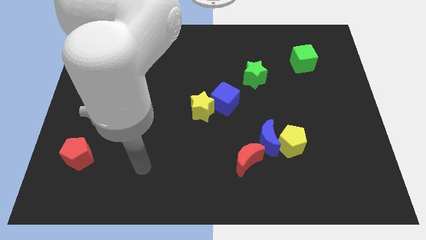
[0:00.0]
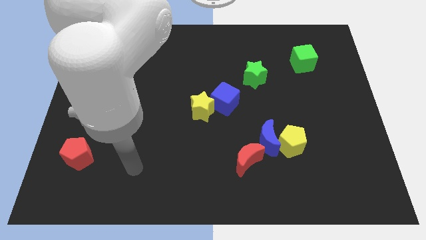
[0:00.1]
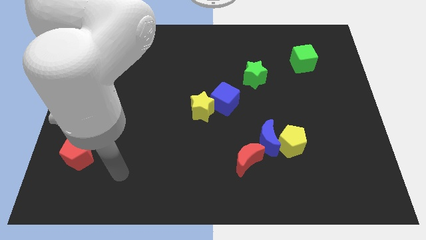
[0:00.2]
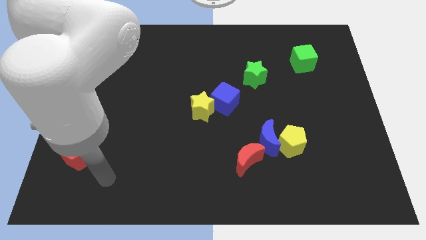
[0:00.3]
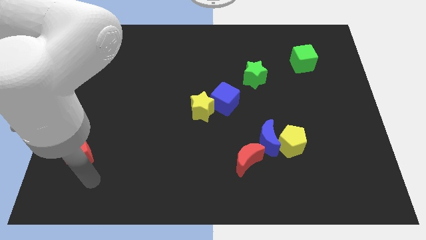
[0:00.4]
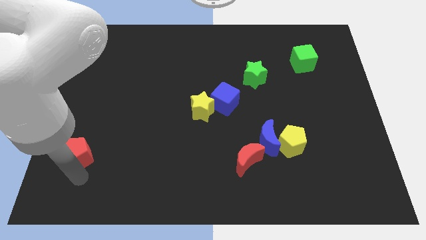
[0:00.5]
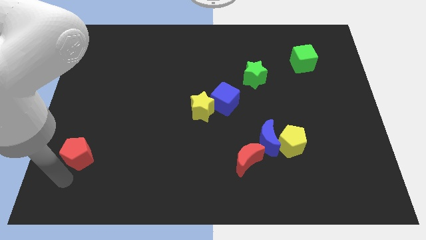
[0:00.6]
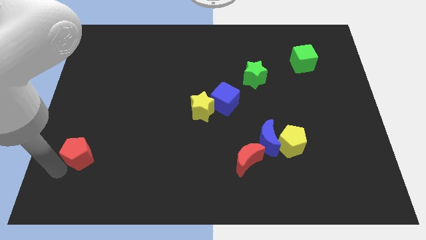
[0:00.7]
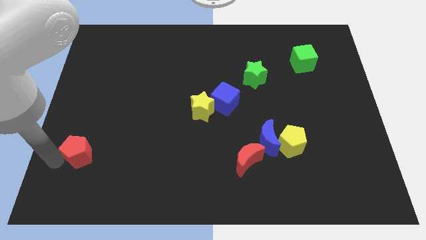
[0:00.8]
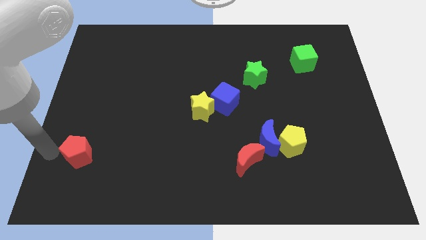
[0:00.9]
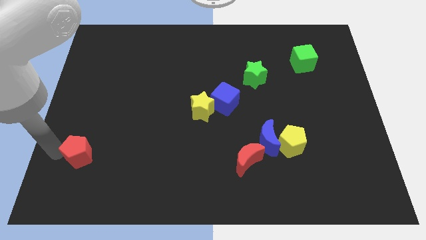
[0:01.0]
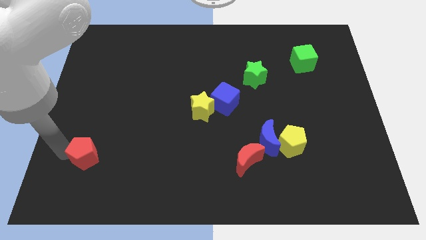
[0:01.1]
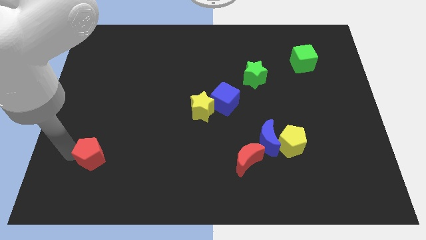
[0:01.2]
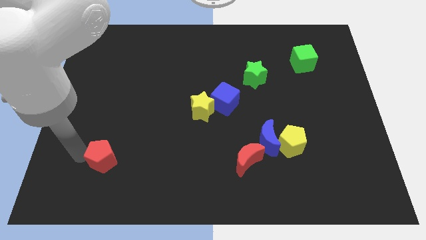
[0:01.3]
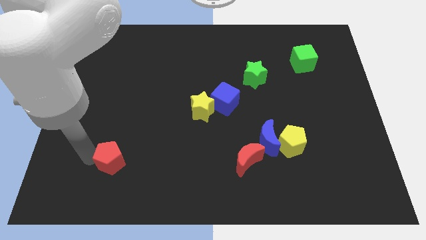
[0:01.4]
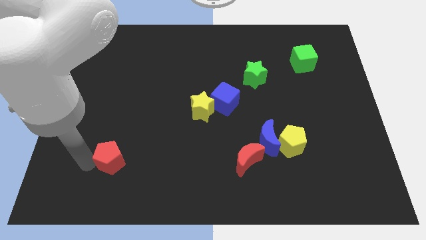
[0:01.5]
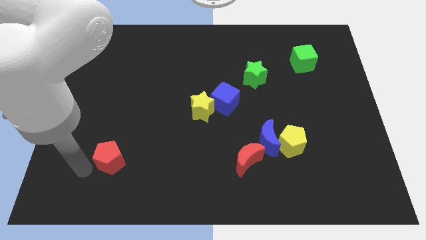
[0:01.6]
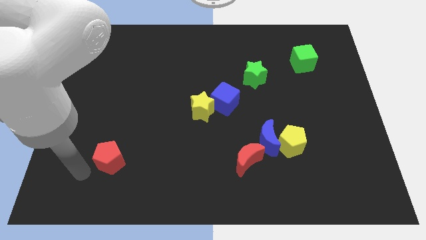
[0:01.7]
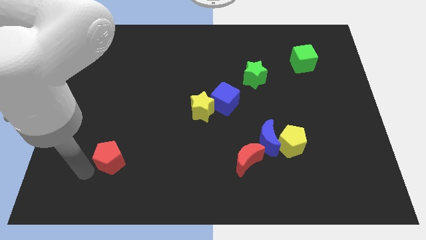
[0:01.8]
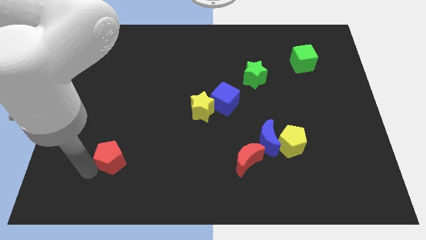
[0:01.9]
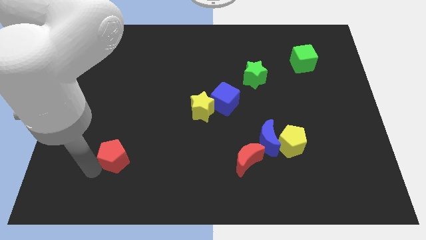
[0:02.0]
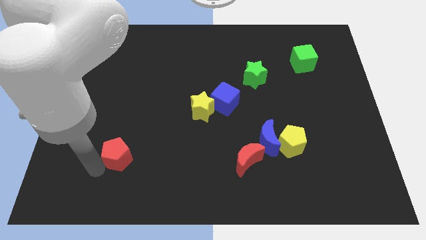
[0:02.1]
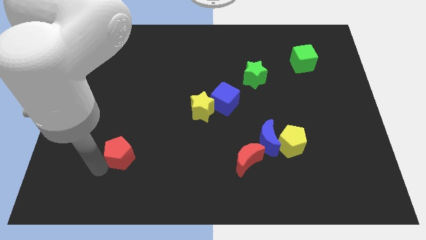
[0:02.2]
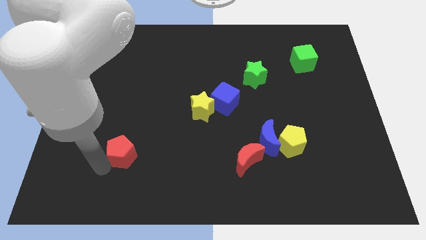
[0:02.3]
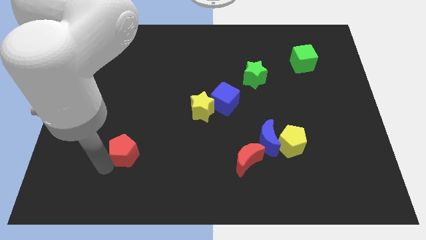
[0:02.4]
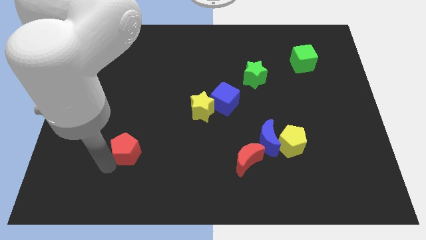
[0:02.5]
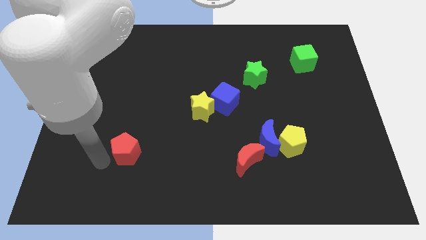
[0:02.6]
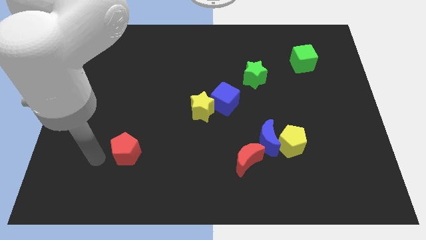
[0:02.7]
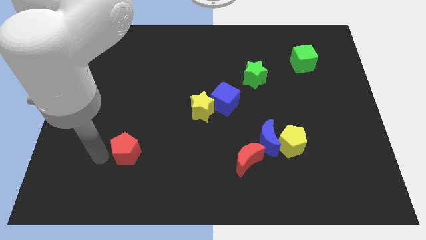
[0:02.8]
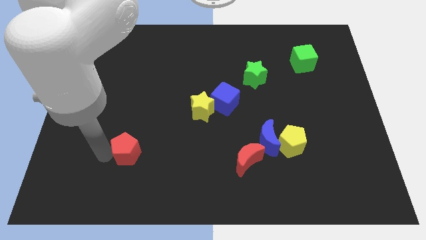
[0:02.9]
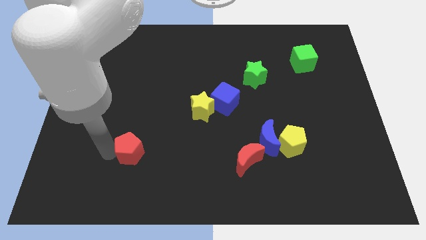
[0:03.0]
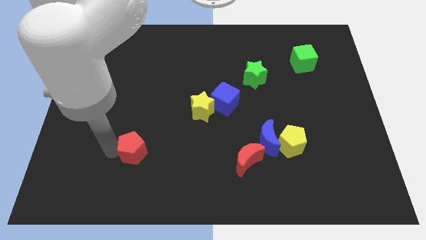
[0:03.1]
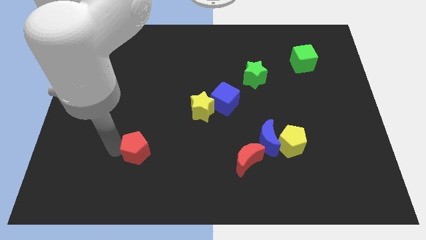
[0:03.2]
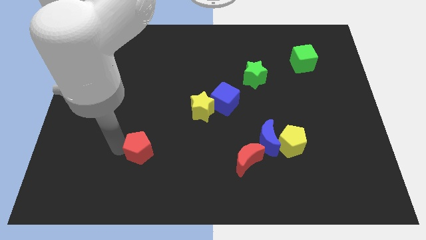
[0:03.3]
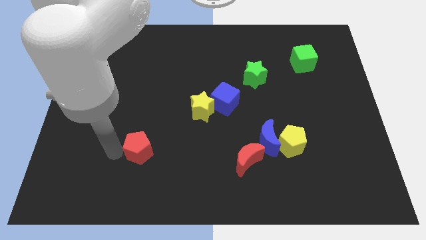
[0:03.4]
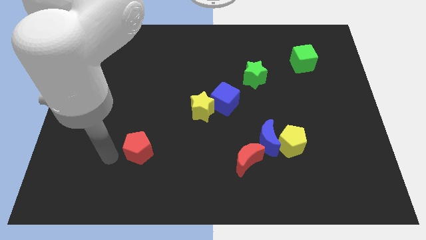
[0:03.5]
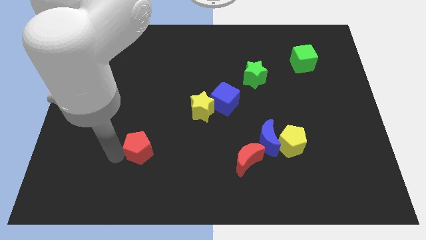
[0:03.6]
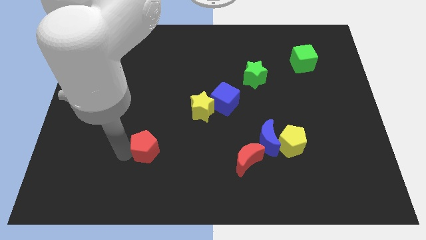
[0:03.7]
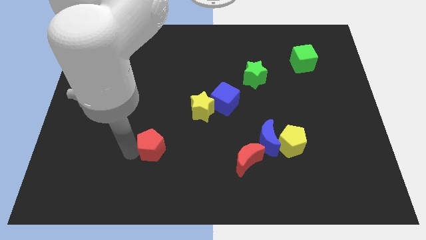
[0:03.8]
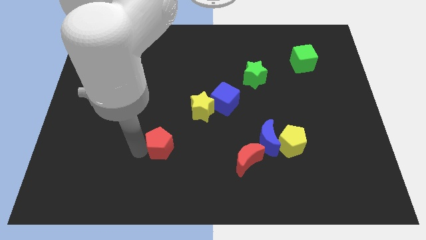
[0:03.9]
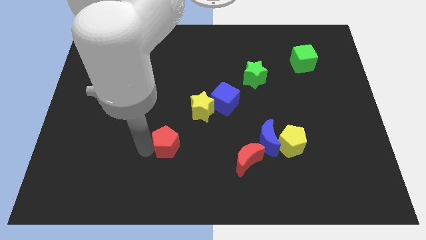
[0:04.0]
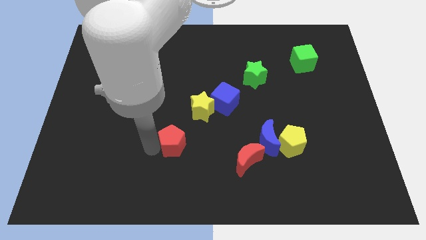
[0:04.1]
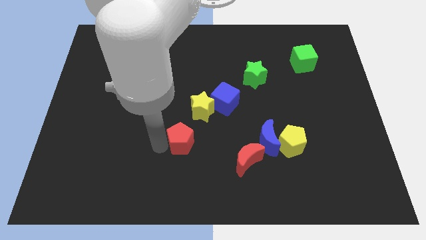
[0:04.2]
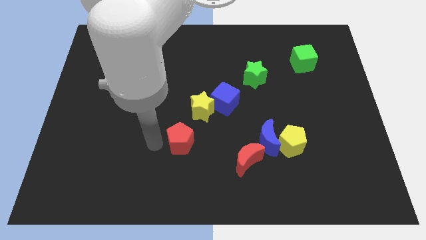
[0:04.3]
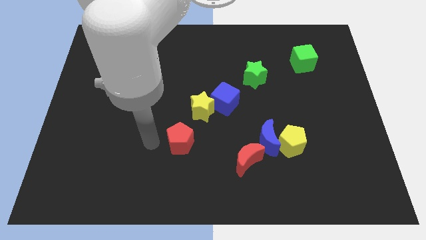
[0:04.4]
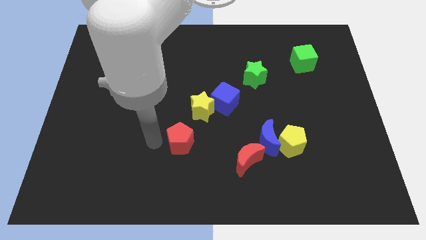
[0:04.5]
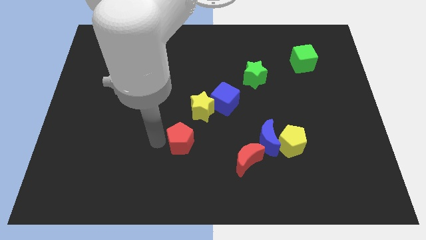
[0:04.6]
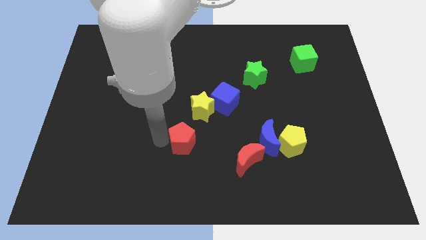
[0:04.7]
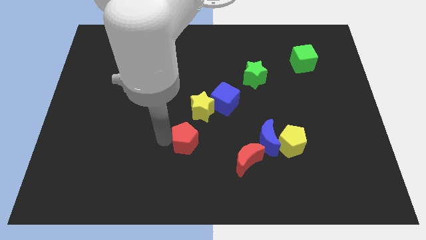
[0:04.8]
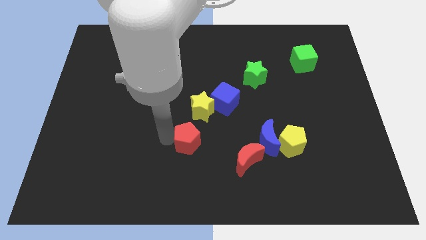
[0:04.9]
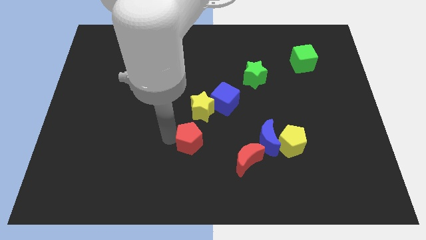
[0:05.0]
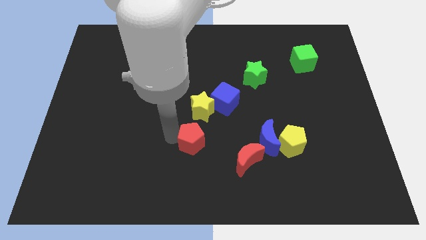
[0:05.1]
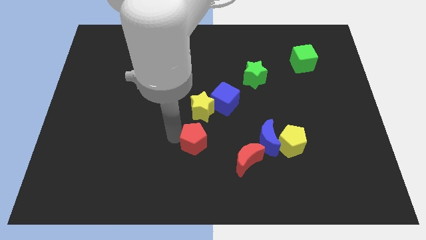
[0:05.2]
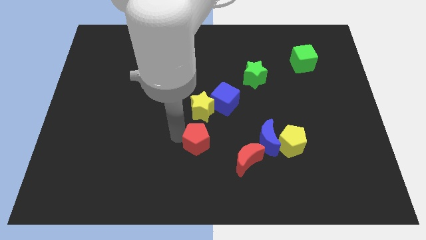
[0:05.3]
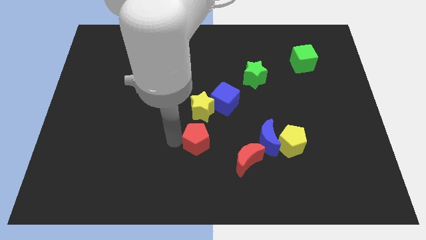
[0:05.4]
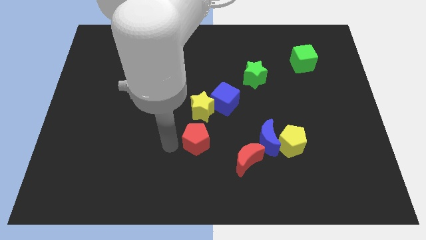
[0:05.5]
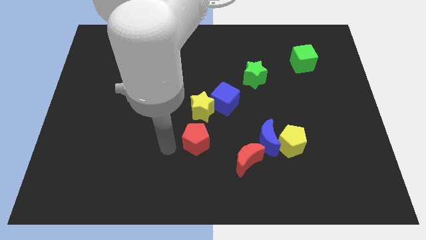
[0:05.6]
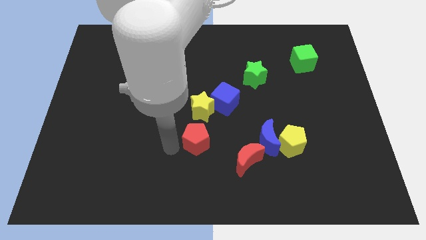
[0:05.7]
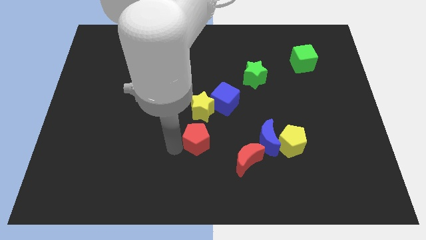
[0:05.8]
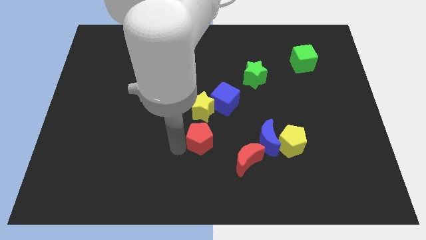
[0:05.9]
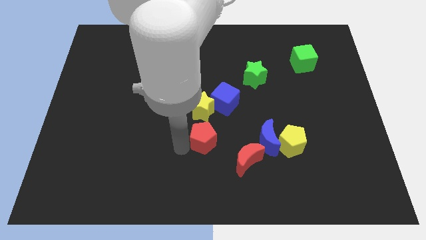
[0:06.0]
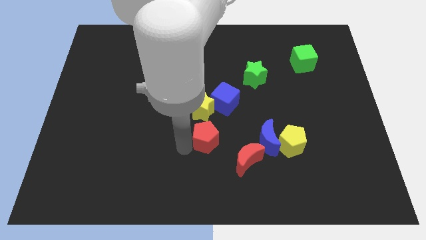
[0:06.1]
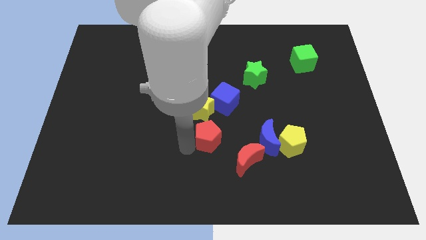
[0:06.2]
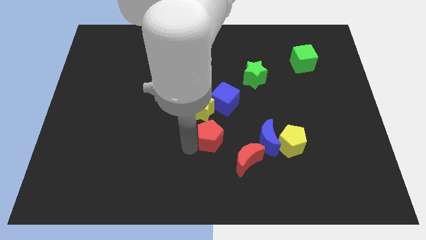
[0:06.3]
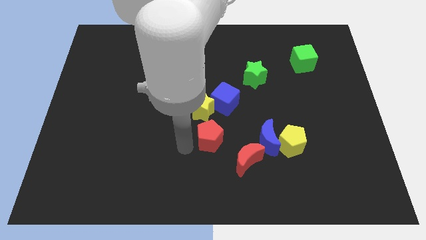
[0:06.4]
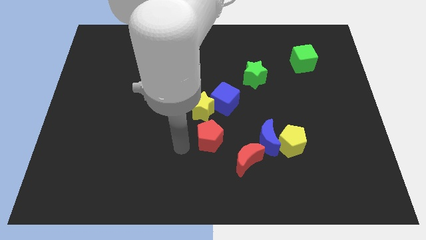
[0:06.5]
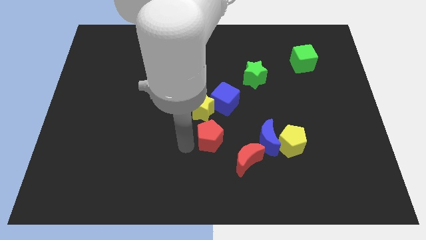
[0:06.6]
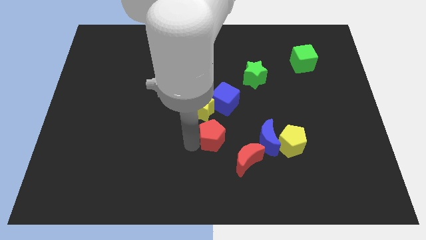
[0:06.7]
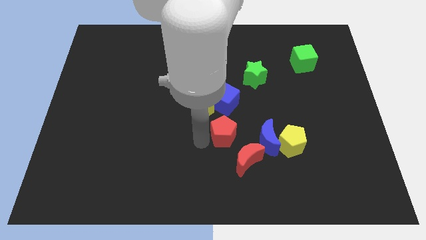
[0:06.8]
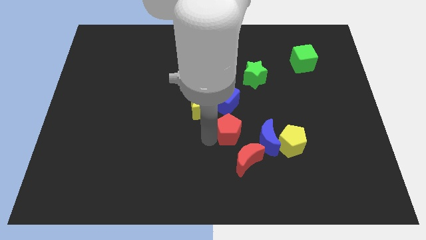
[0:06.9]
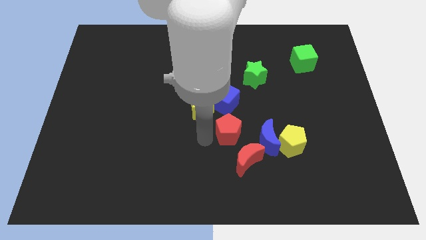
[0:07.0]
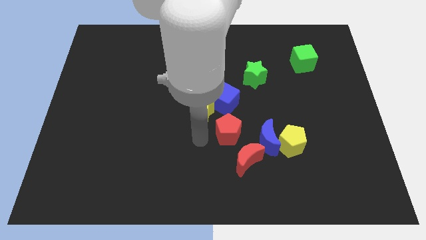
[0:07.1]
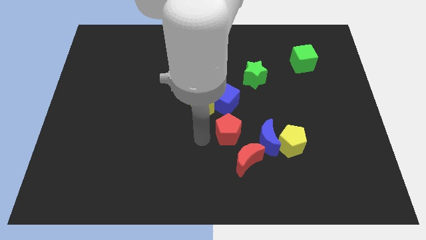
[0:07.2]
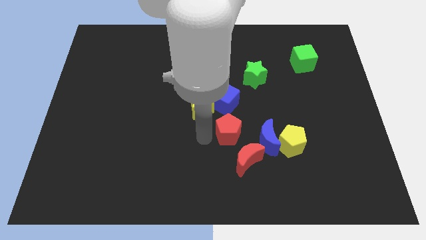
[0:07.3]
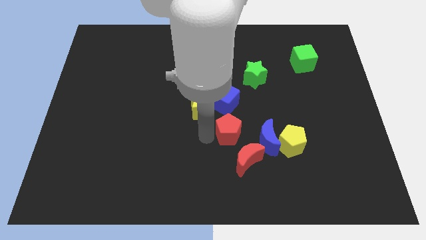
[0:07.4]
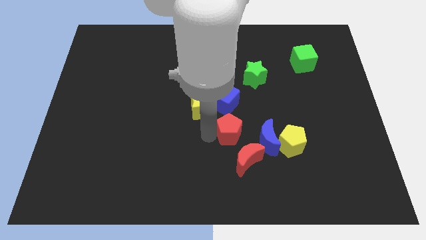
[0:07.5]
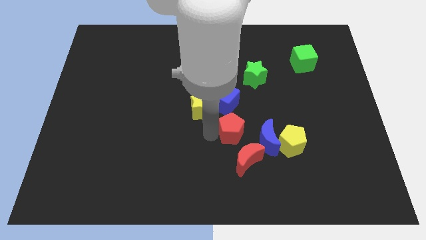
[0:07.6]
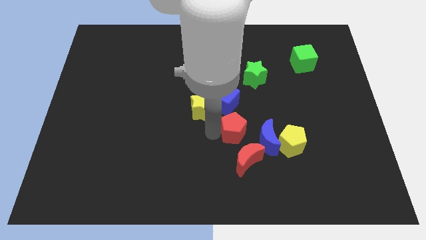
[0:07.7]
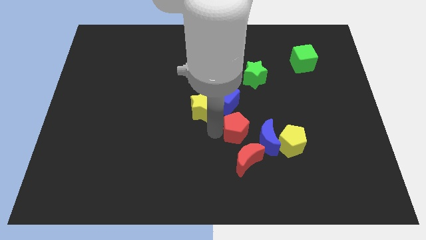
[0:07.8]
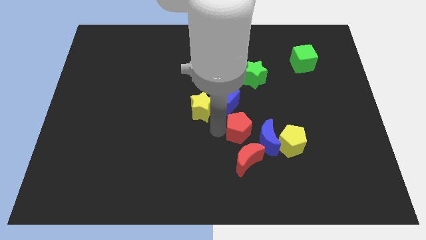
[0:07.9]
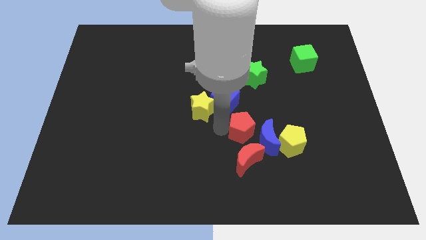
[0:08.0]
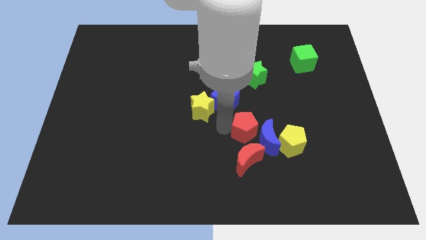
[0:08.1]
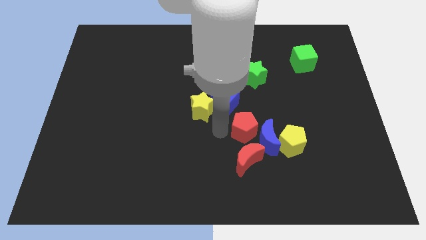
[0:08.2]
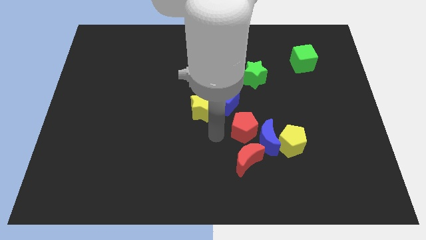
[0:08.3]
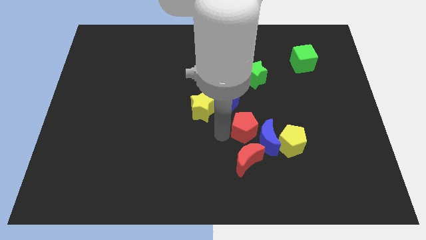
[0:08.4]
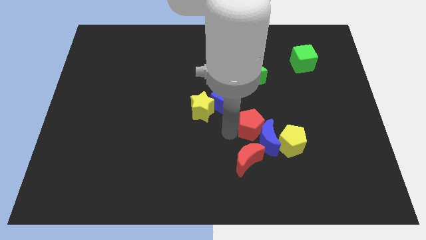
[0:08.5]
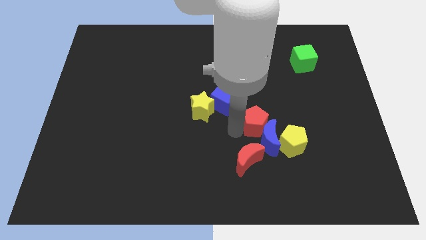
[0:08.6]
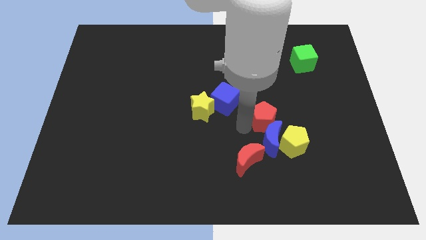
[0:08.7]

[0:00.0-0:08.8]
put the red pentagon diagonally up and to the right of the blue moon
